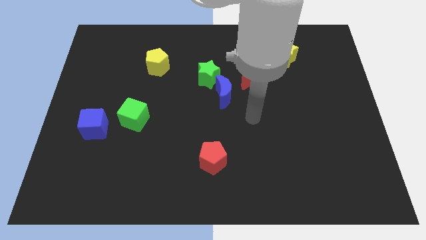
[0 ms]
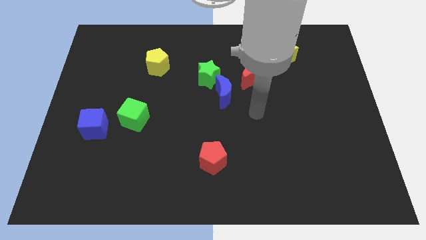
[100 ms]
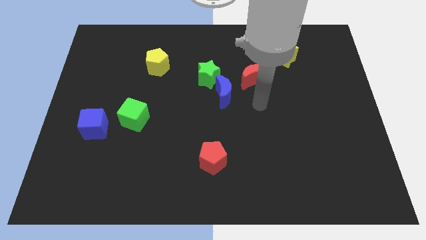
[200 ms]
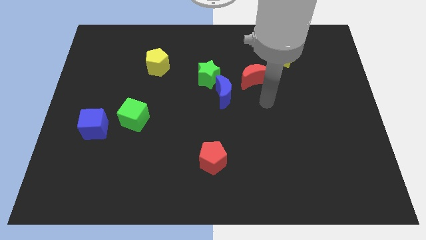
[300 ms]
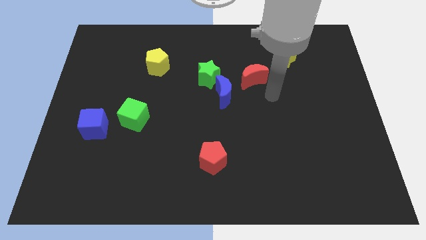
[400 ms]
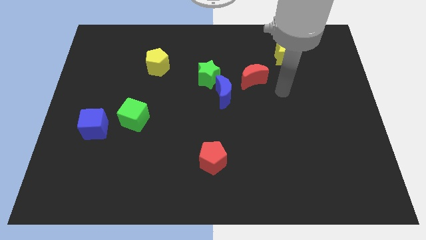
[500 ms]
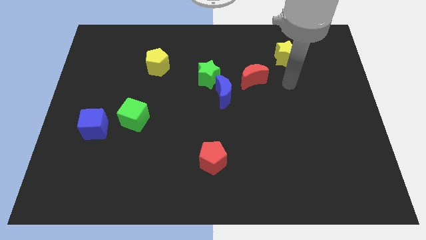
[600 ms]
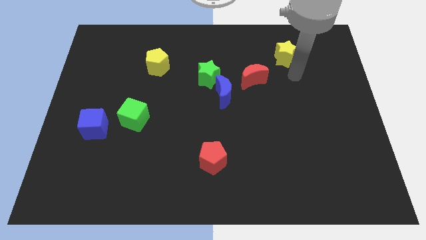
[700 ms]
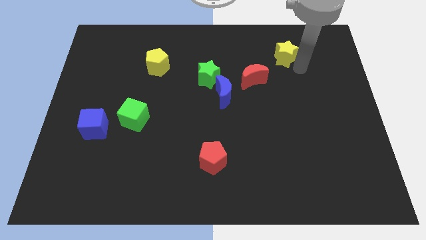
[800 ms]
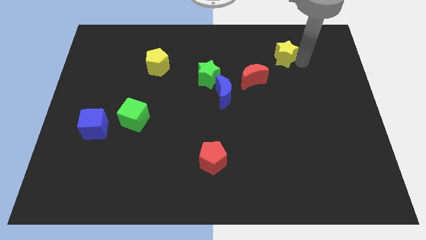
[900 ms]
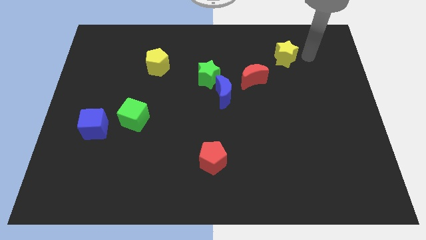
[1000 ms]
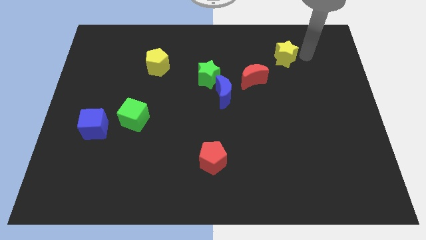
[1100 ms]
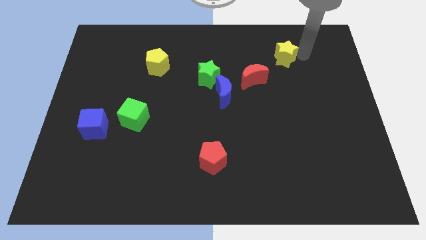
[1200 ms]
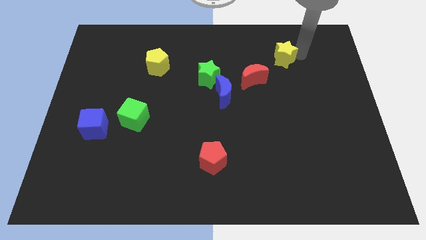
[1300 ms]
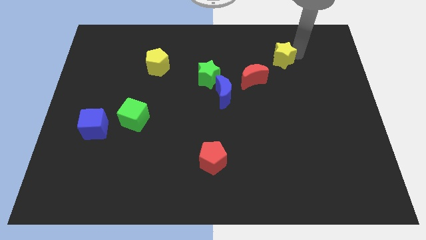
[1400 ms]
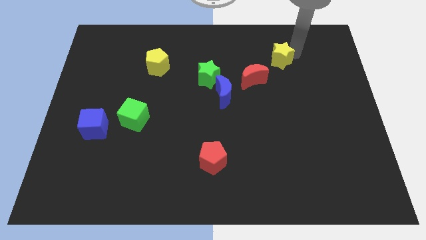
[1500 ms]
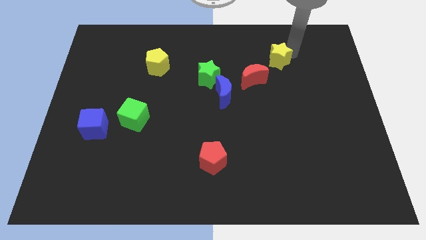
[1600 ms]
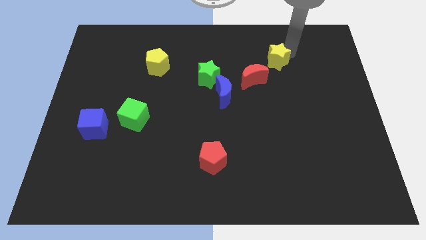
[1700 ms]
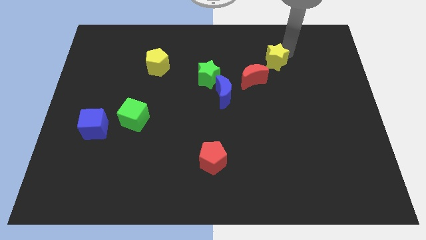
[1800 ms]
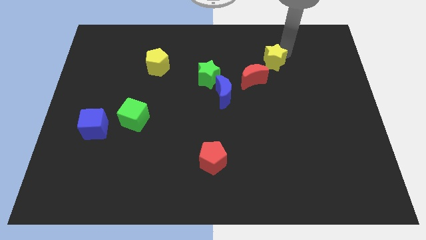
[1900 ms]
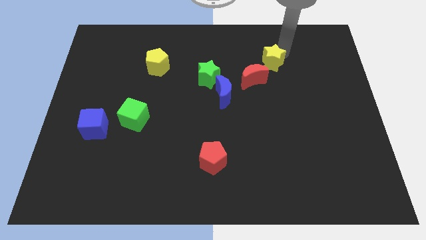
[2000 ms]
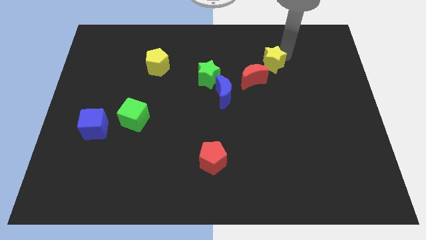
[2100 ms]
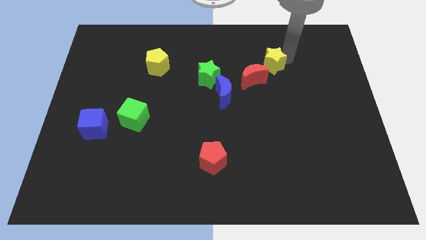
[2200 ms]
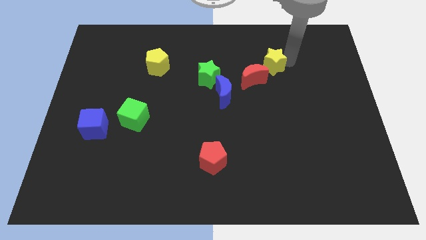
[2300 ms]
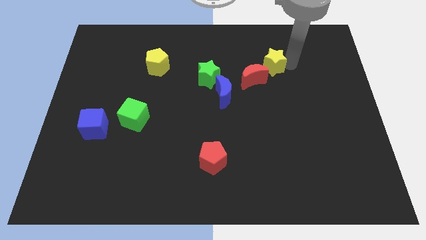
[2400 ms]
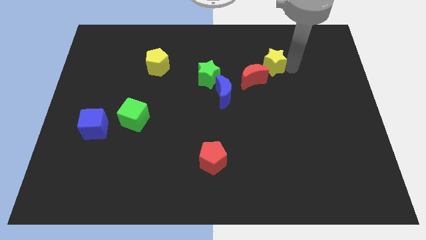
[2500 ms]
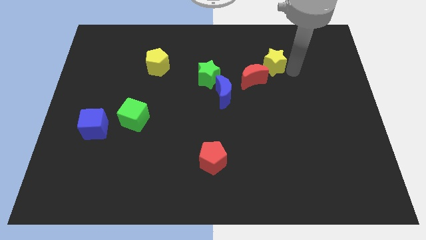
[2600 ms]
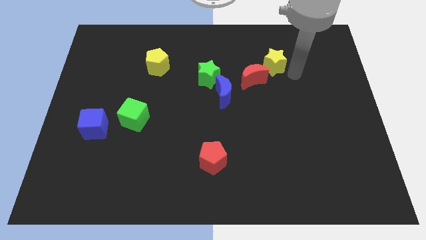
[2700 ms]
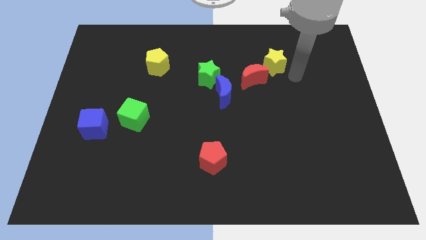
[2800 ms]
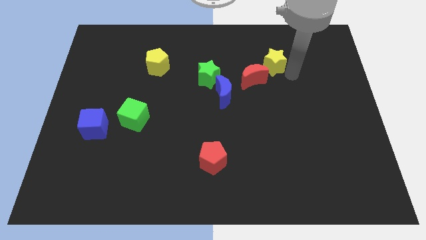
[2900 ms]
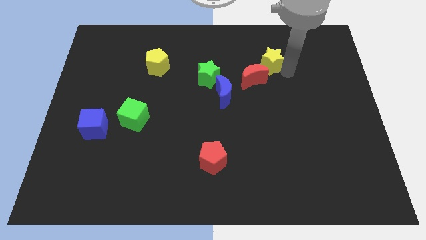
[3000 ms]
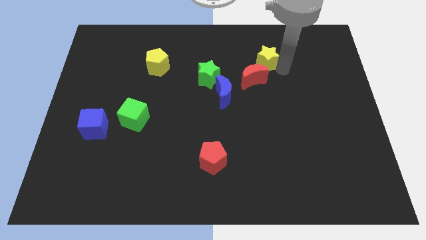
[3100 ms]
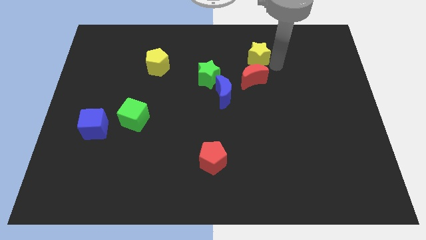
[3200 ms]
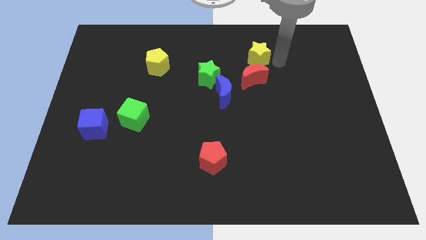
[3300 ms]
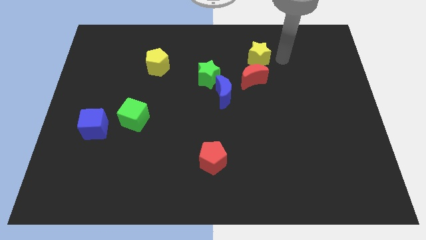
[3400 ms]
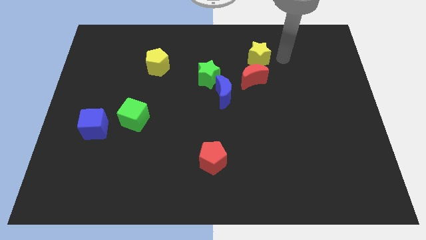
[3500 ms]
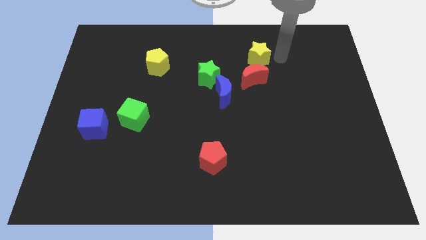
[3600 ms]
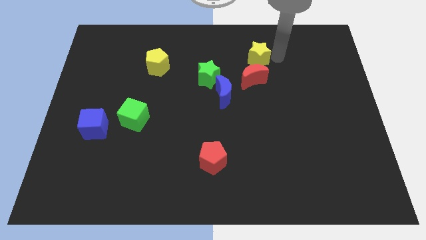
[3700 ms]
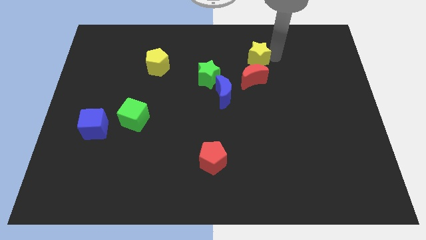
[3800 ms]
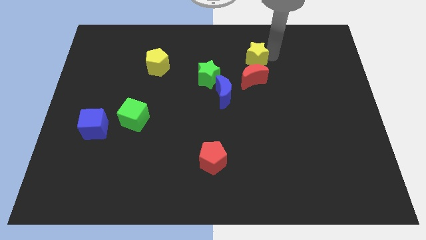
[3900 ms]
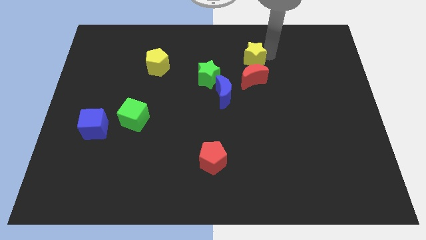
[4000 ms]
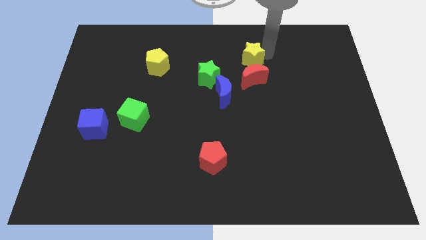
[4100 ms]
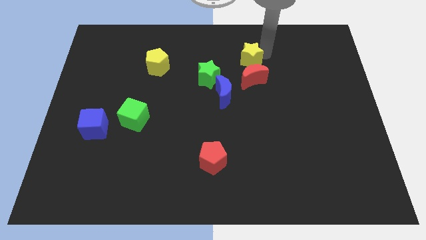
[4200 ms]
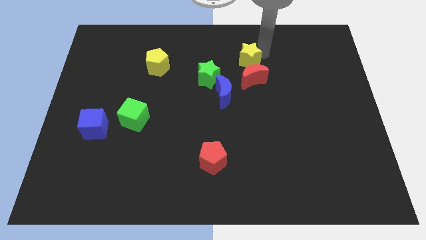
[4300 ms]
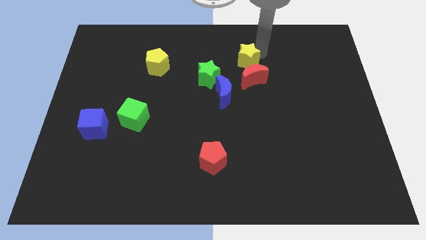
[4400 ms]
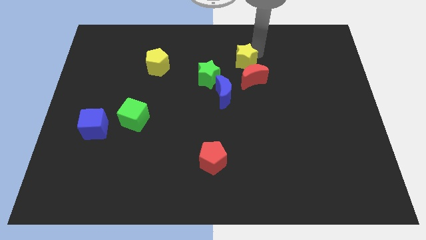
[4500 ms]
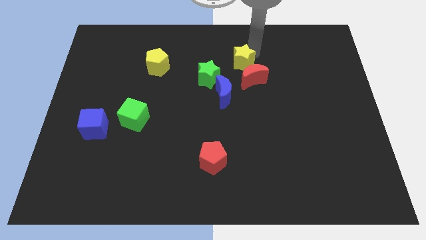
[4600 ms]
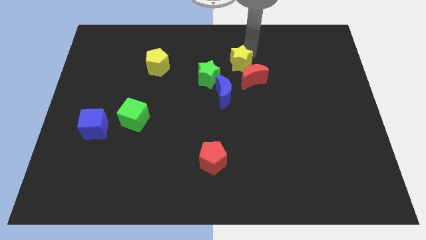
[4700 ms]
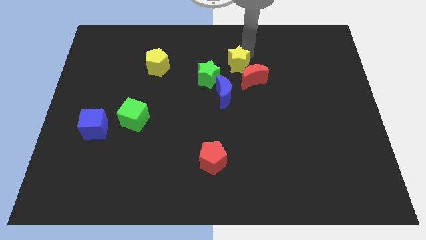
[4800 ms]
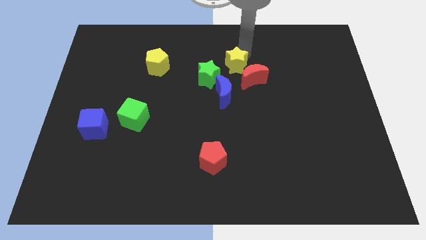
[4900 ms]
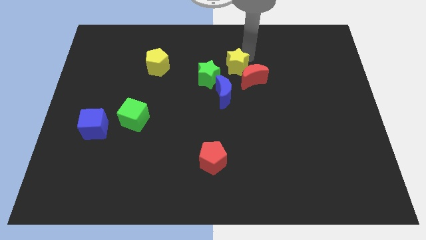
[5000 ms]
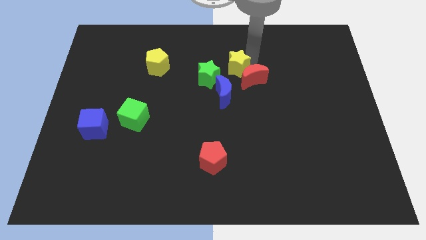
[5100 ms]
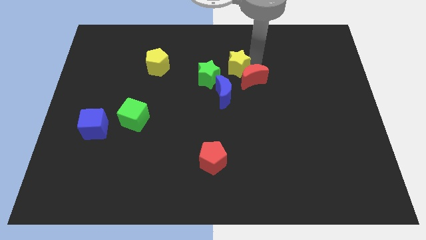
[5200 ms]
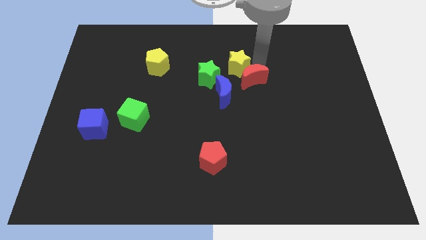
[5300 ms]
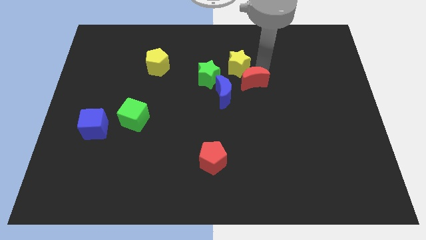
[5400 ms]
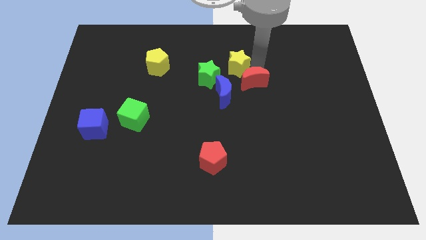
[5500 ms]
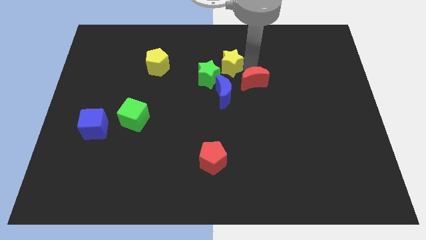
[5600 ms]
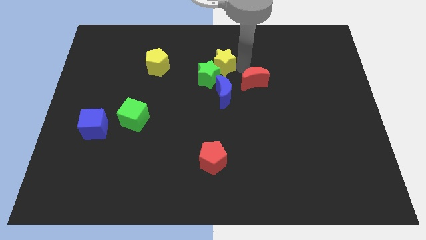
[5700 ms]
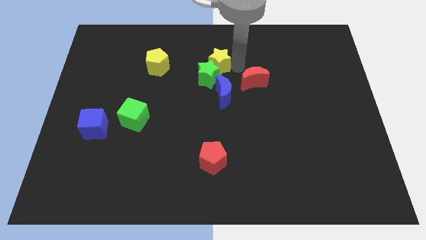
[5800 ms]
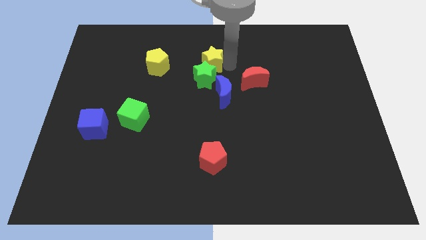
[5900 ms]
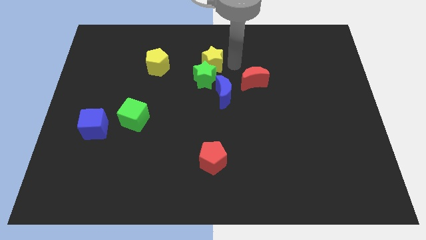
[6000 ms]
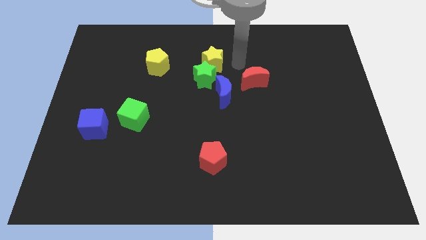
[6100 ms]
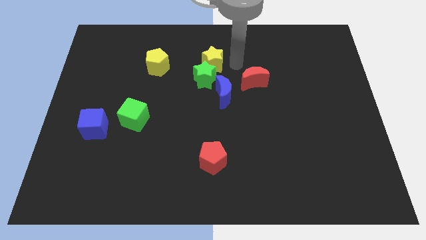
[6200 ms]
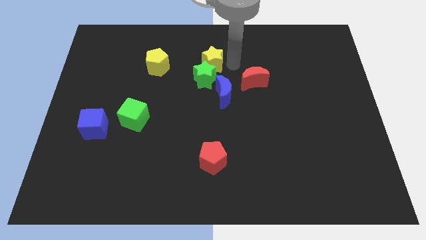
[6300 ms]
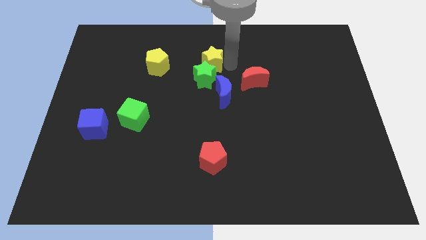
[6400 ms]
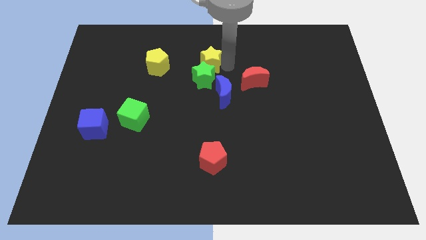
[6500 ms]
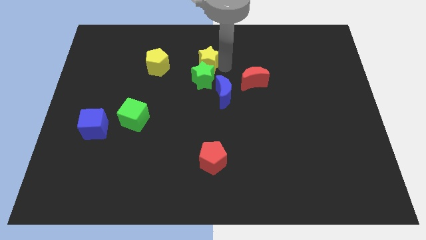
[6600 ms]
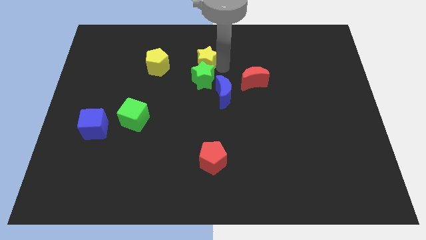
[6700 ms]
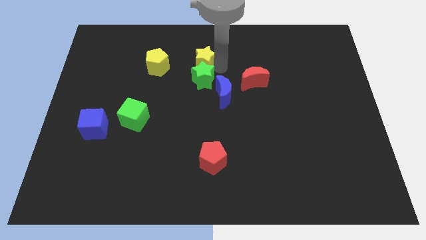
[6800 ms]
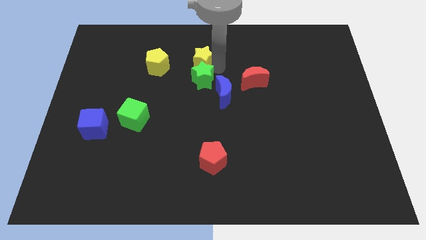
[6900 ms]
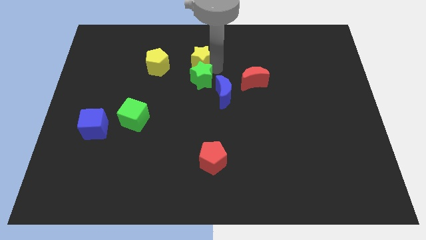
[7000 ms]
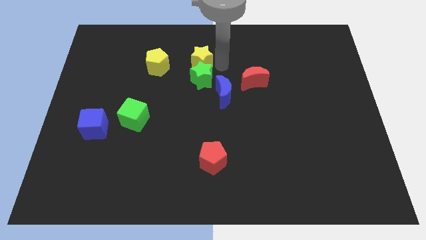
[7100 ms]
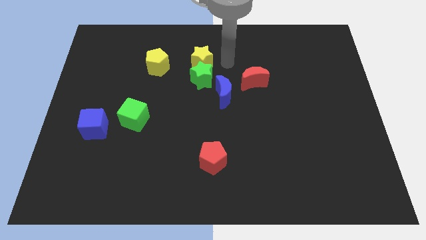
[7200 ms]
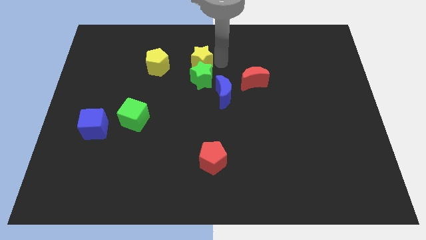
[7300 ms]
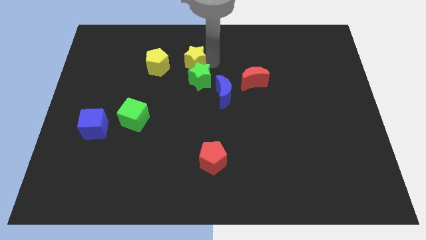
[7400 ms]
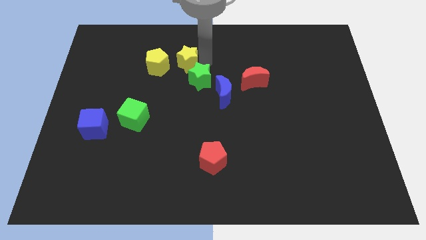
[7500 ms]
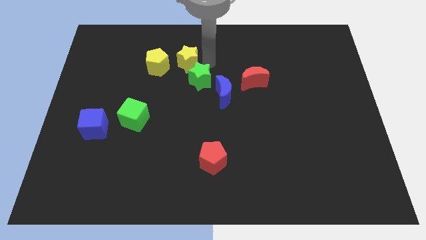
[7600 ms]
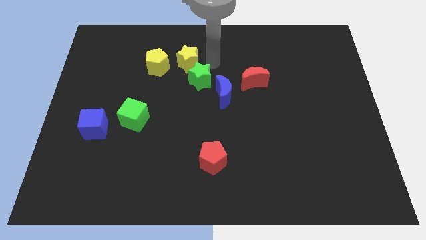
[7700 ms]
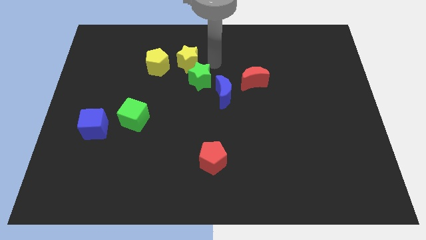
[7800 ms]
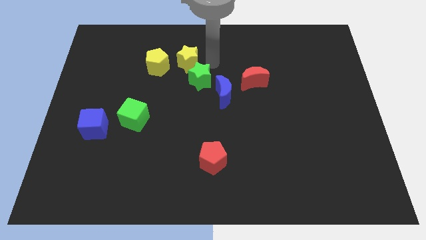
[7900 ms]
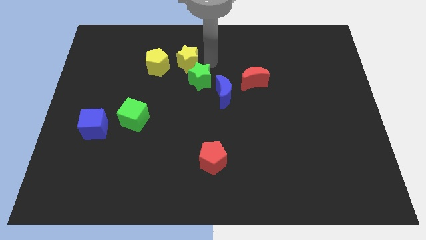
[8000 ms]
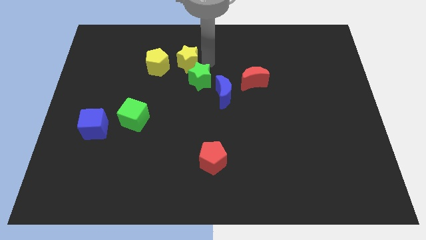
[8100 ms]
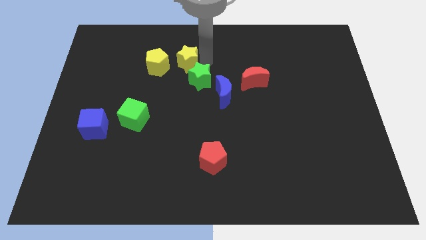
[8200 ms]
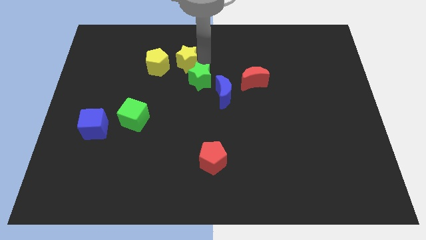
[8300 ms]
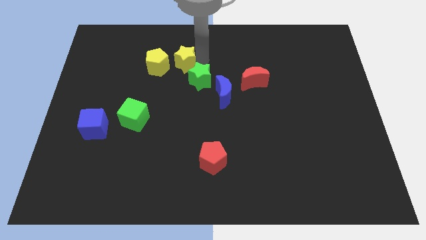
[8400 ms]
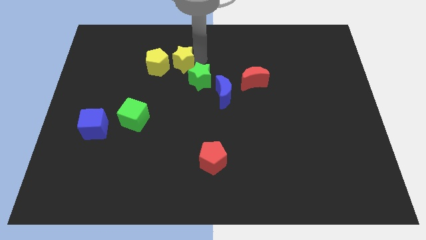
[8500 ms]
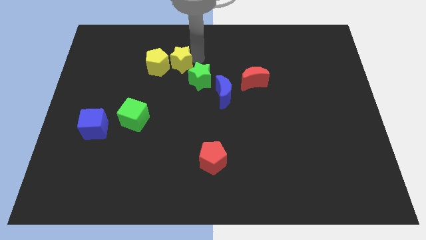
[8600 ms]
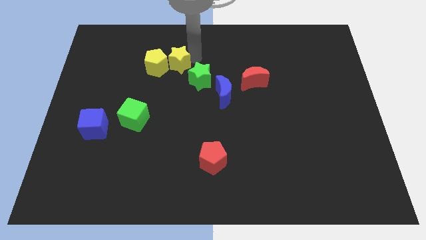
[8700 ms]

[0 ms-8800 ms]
slide the yellow star to the yellow pentagon
